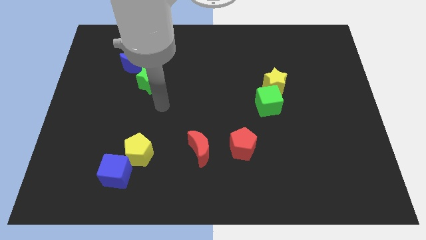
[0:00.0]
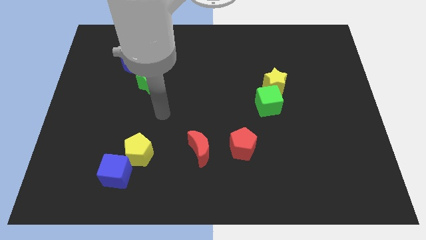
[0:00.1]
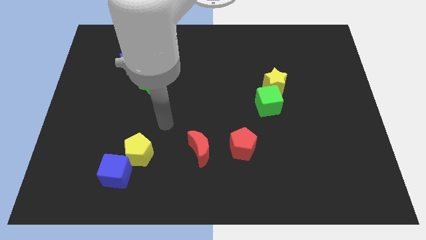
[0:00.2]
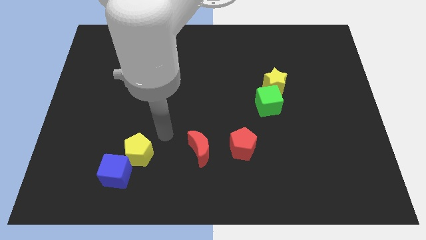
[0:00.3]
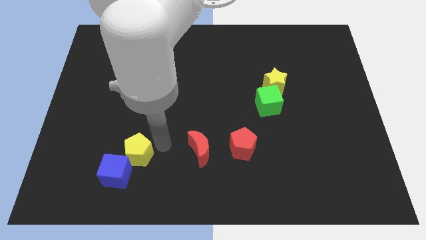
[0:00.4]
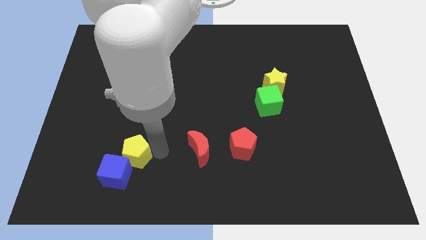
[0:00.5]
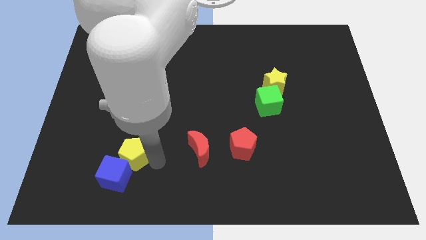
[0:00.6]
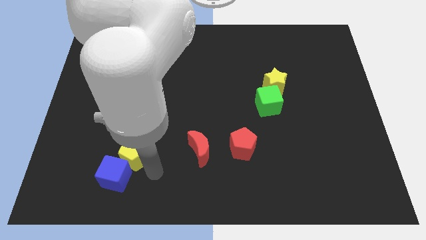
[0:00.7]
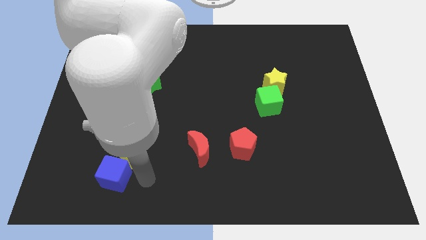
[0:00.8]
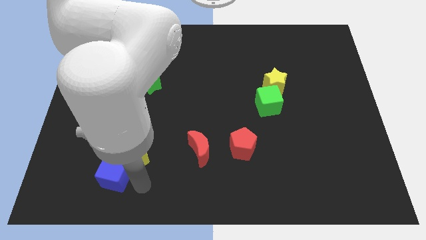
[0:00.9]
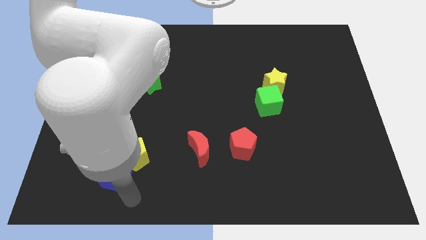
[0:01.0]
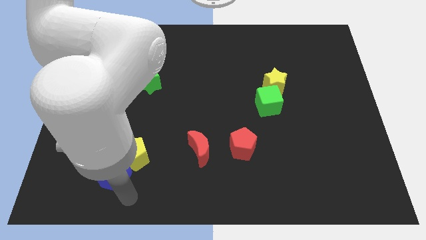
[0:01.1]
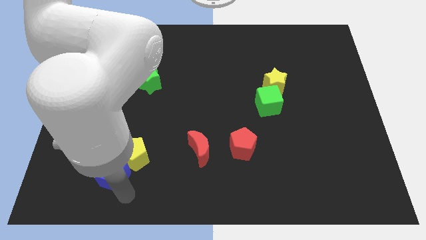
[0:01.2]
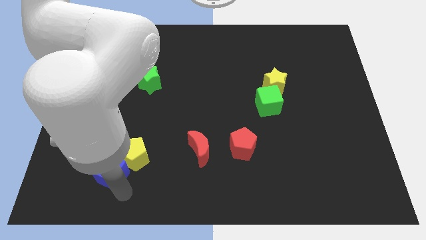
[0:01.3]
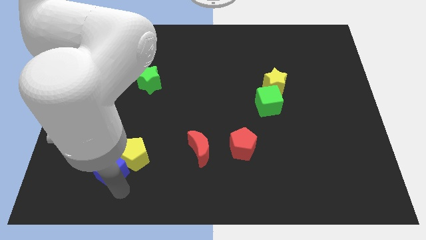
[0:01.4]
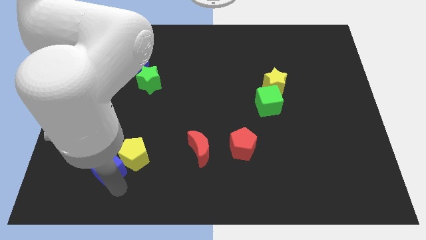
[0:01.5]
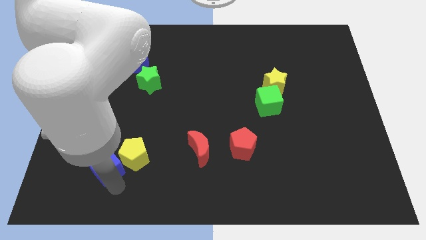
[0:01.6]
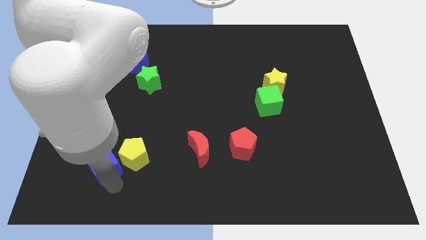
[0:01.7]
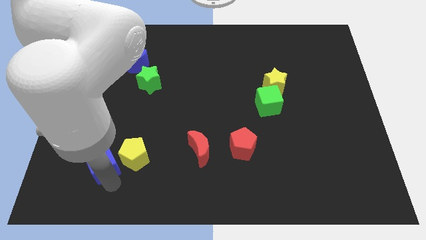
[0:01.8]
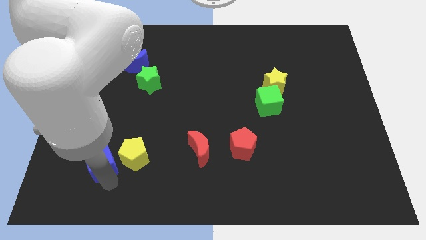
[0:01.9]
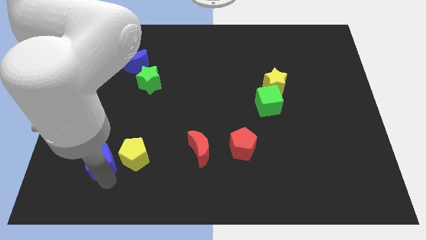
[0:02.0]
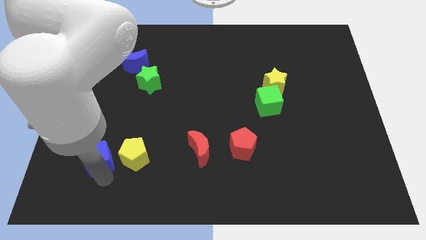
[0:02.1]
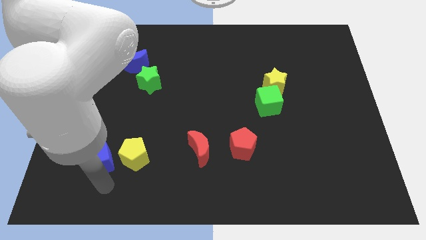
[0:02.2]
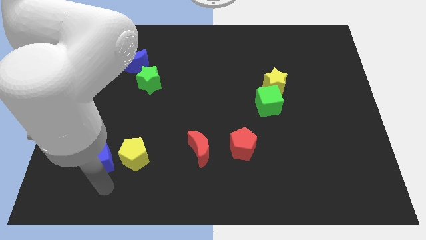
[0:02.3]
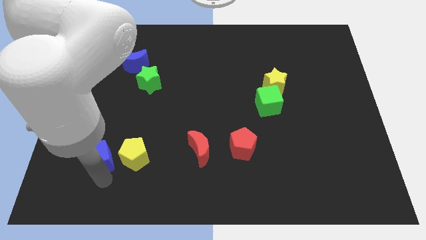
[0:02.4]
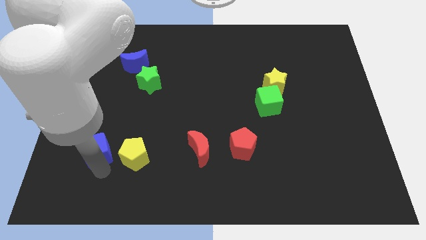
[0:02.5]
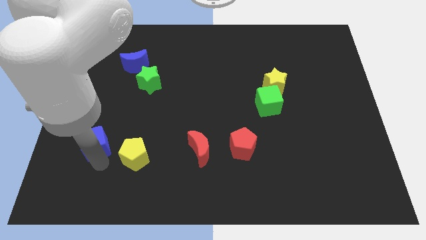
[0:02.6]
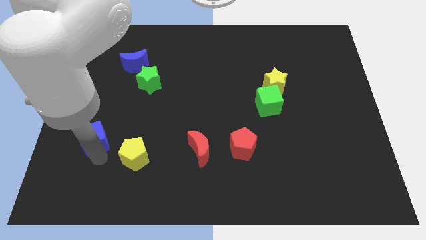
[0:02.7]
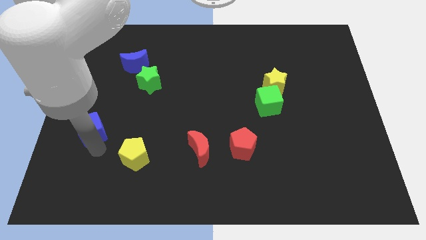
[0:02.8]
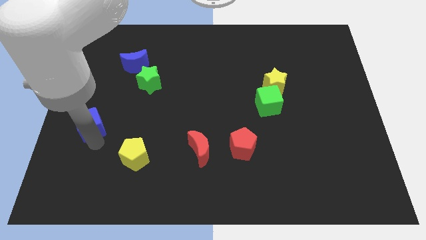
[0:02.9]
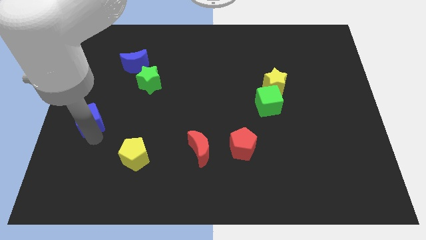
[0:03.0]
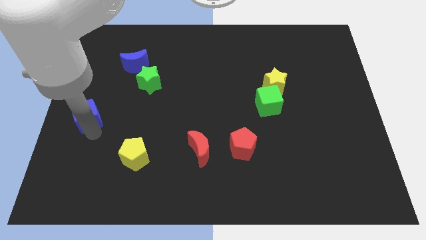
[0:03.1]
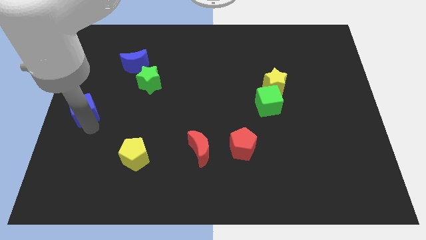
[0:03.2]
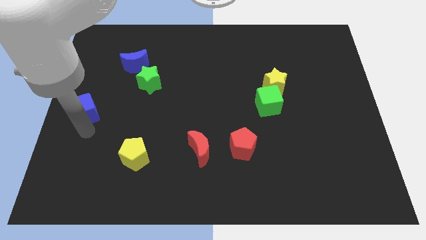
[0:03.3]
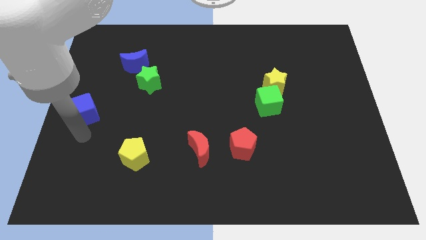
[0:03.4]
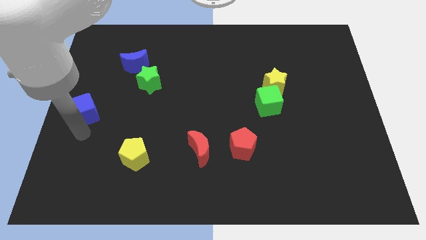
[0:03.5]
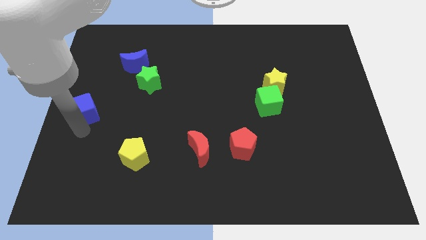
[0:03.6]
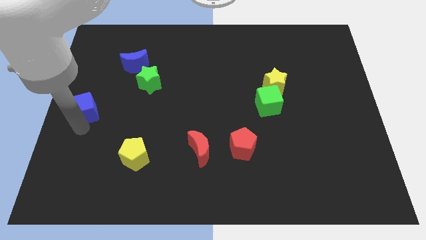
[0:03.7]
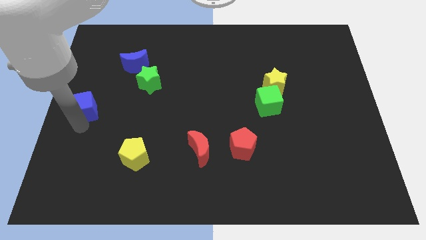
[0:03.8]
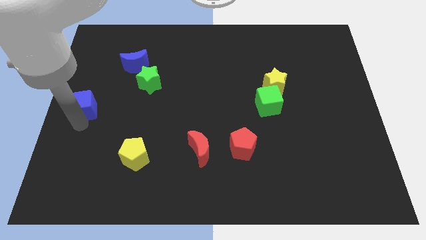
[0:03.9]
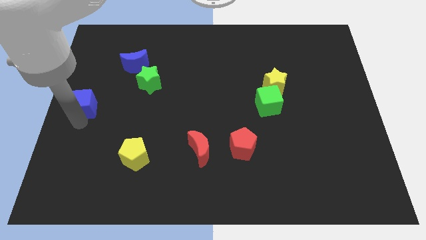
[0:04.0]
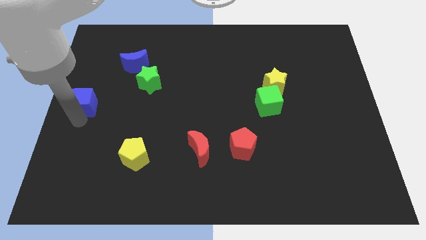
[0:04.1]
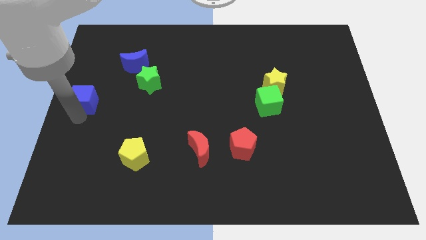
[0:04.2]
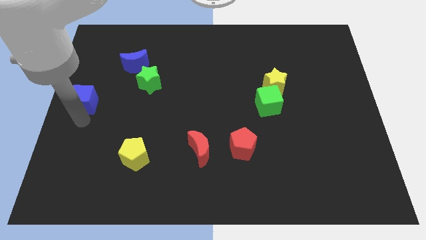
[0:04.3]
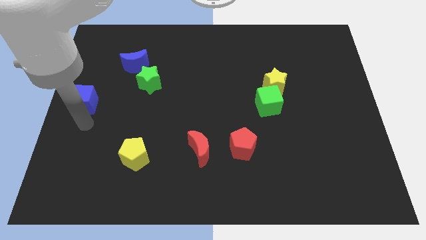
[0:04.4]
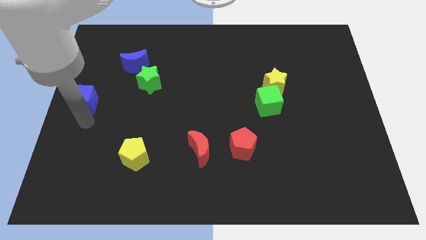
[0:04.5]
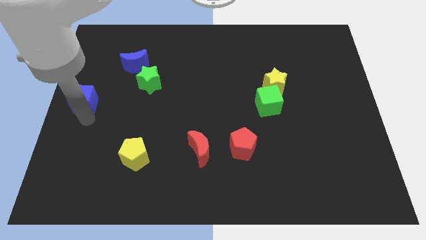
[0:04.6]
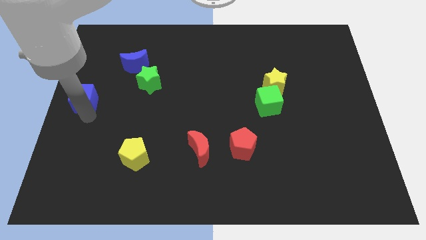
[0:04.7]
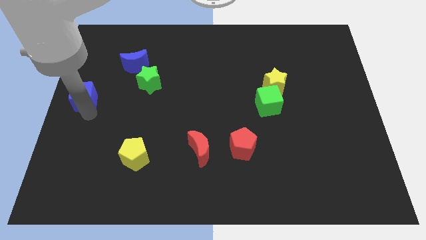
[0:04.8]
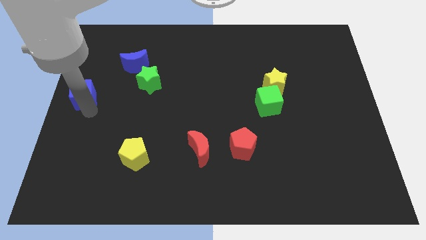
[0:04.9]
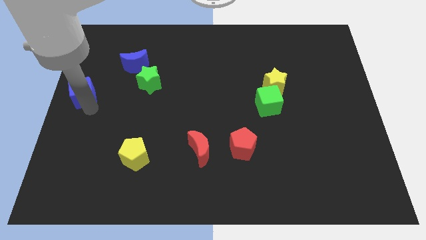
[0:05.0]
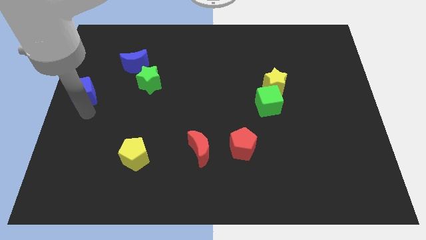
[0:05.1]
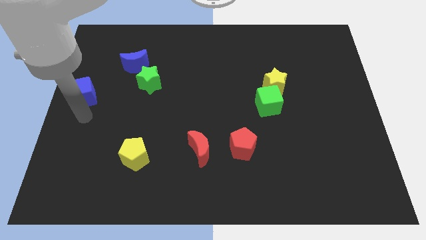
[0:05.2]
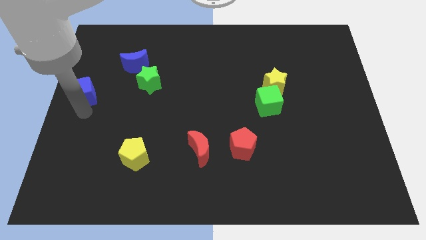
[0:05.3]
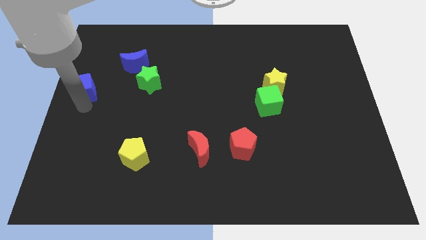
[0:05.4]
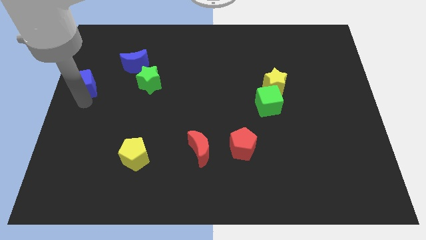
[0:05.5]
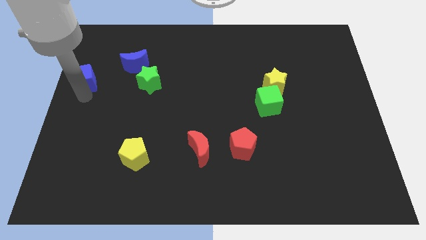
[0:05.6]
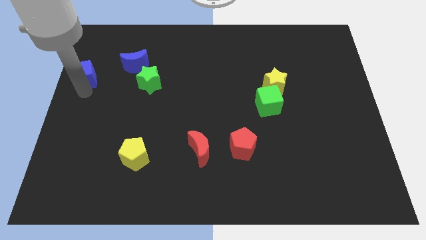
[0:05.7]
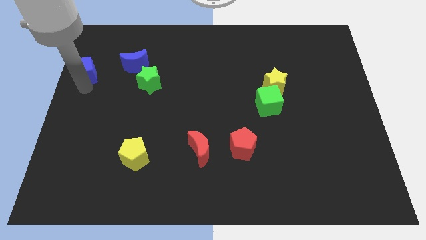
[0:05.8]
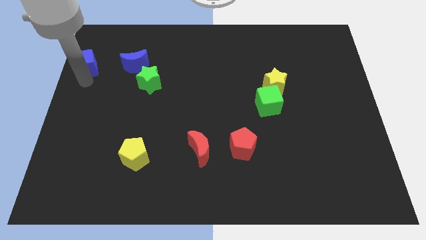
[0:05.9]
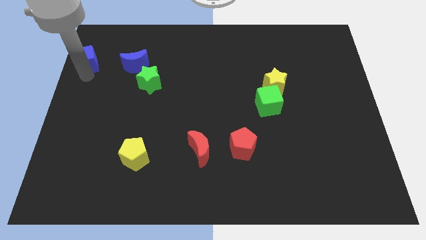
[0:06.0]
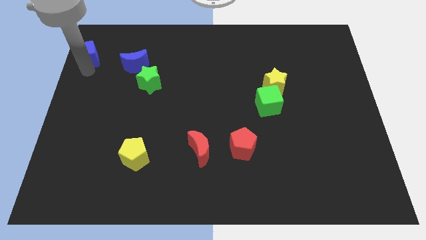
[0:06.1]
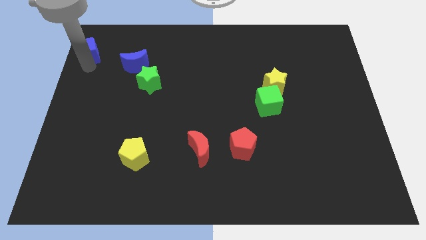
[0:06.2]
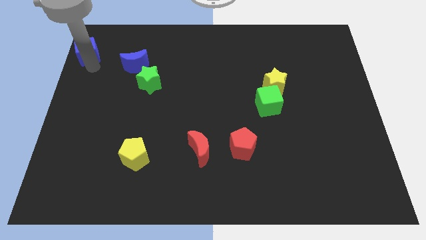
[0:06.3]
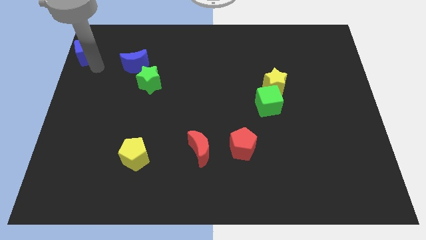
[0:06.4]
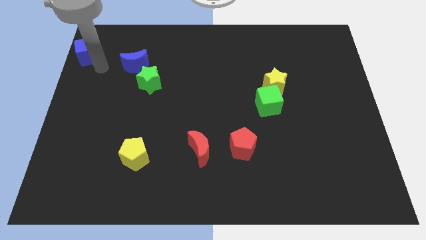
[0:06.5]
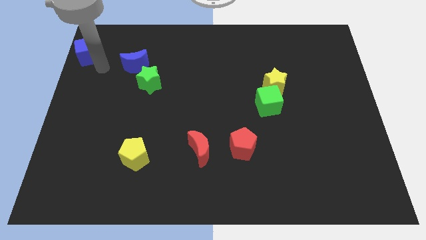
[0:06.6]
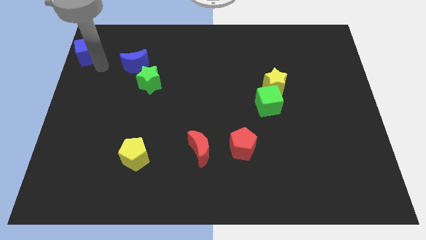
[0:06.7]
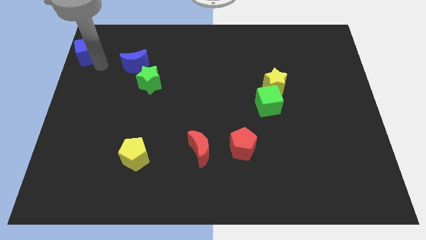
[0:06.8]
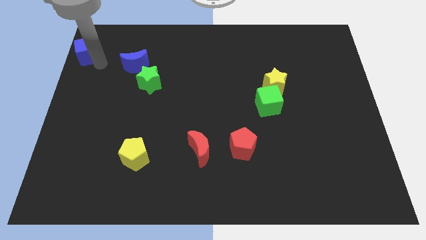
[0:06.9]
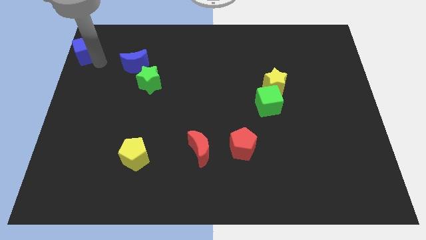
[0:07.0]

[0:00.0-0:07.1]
slide the blue cube to the top left of the board
